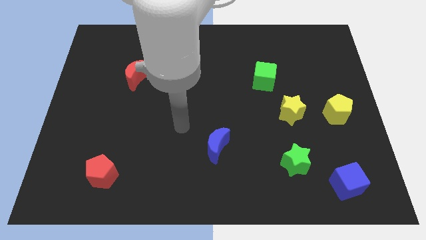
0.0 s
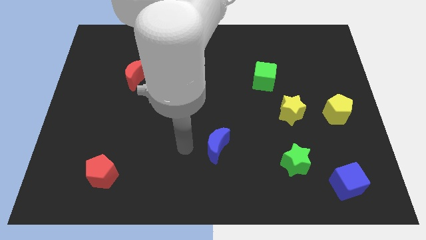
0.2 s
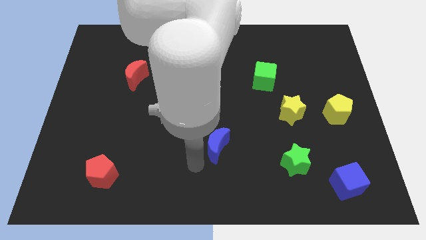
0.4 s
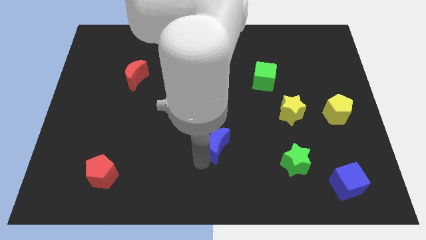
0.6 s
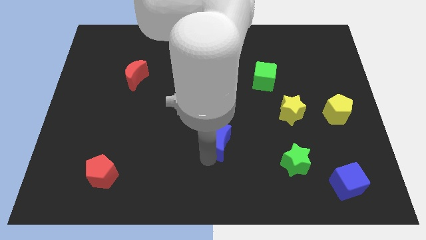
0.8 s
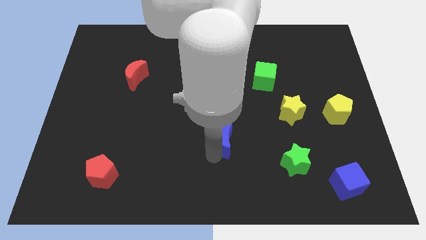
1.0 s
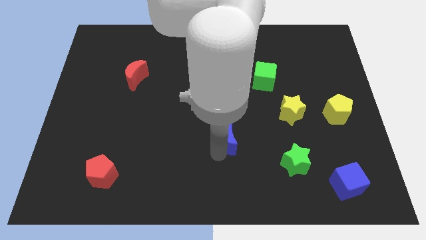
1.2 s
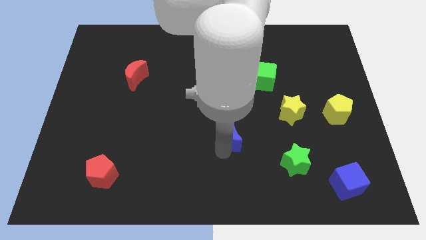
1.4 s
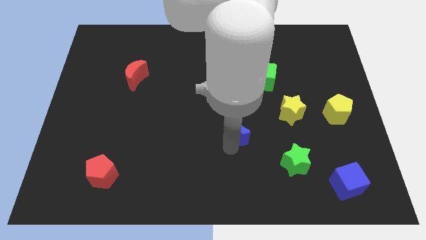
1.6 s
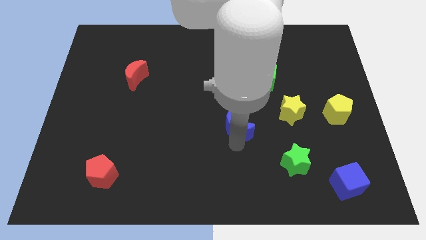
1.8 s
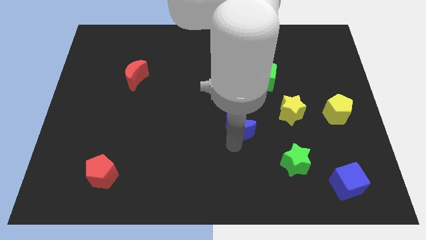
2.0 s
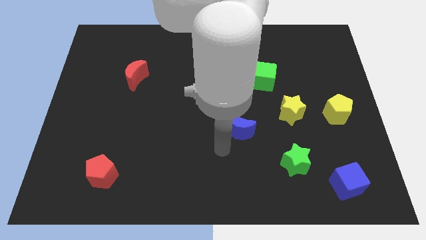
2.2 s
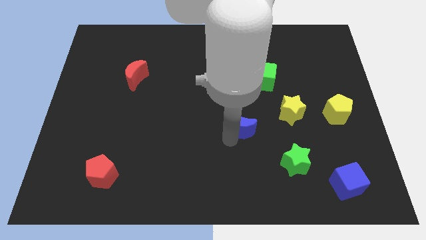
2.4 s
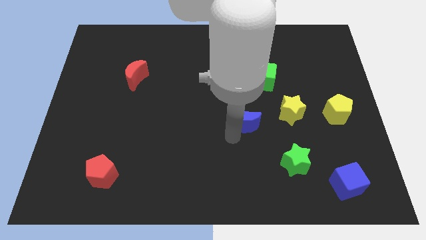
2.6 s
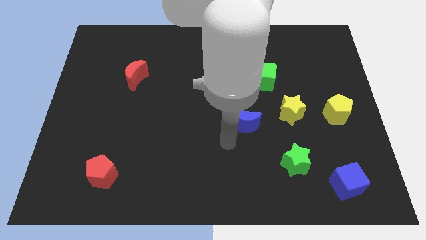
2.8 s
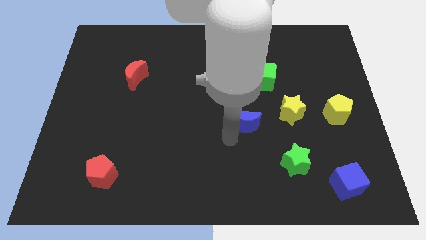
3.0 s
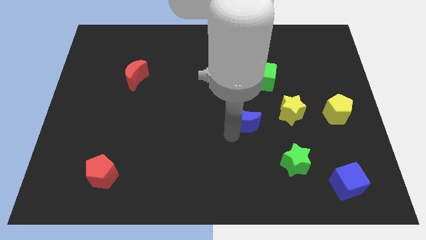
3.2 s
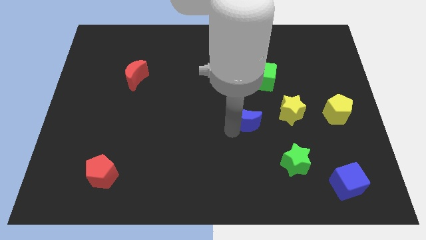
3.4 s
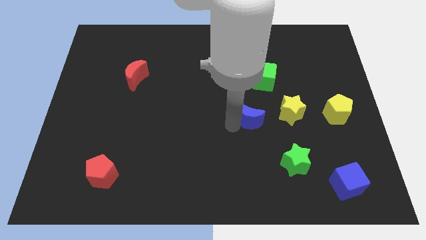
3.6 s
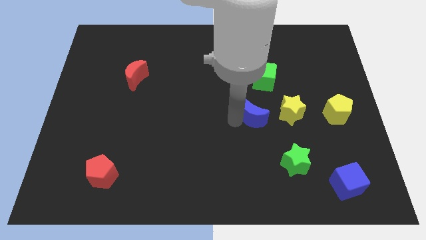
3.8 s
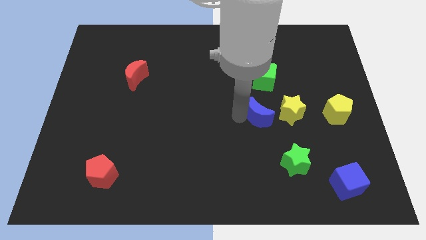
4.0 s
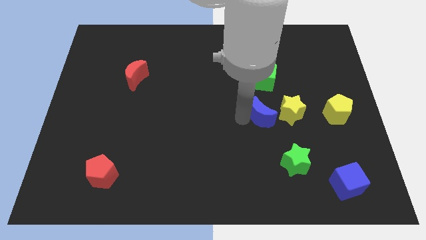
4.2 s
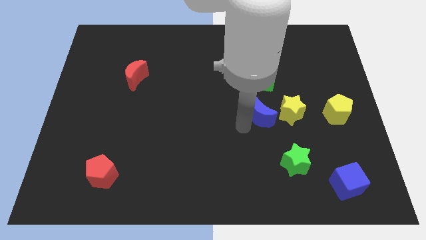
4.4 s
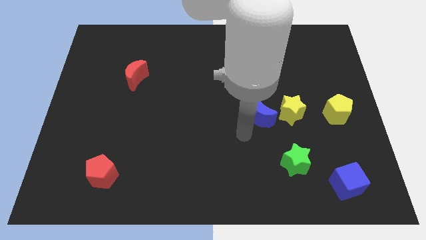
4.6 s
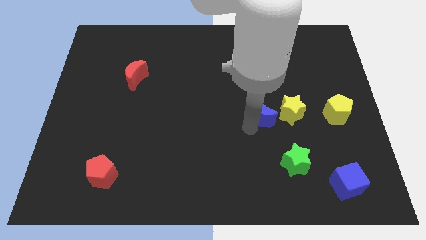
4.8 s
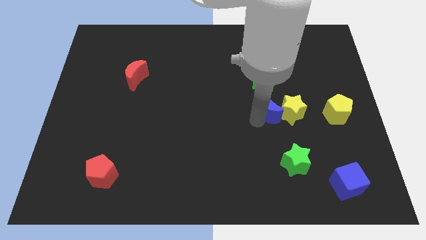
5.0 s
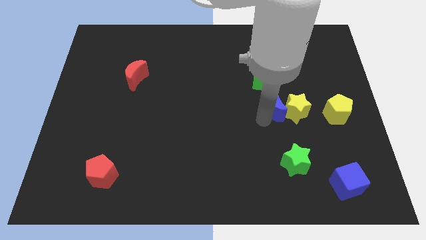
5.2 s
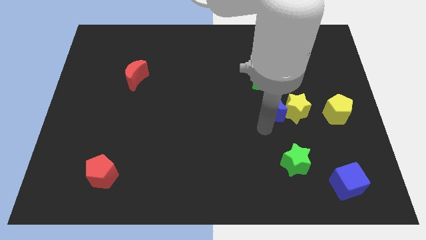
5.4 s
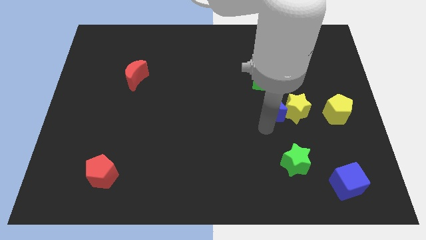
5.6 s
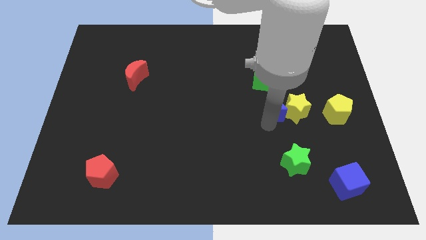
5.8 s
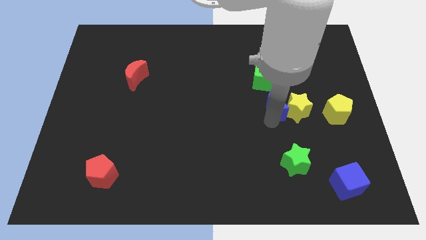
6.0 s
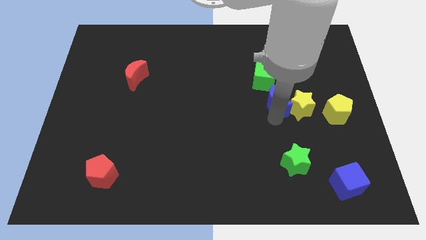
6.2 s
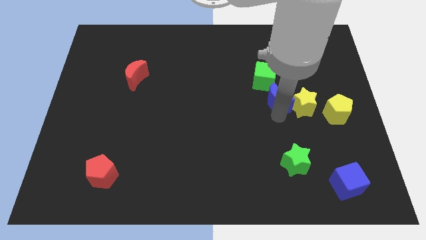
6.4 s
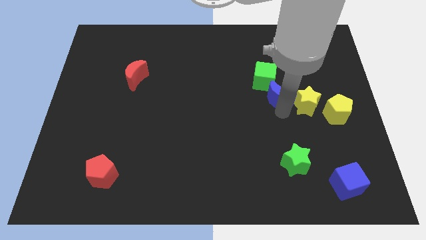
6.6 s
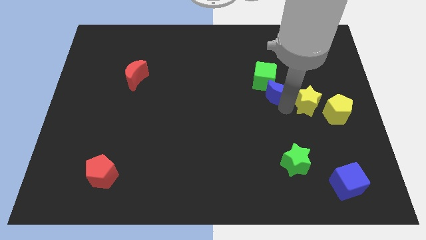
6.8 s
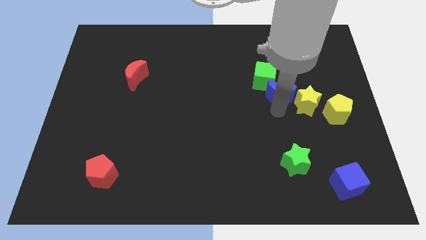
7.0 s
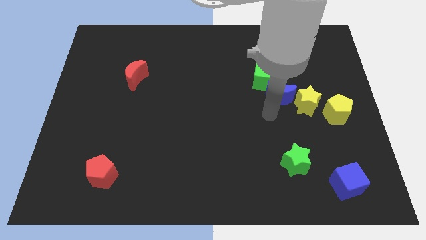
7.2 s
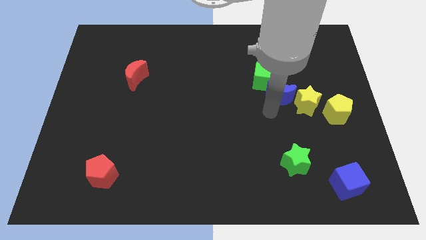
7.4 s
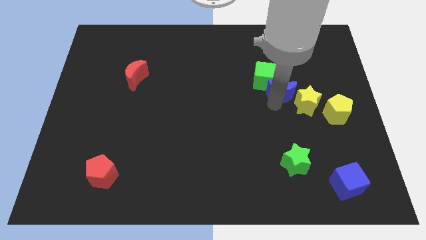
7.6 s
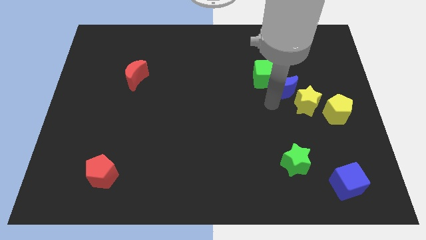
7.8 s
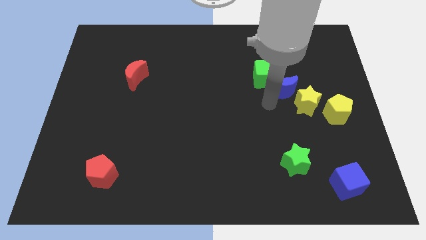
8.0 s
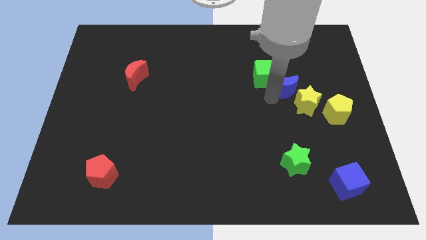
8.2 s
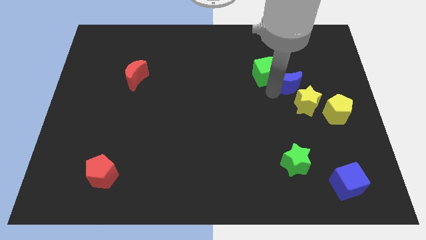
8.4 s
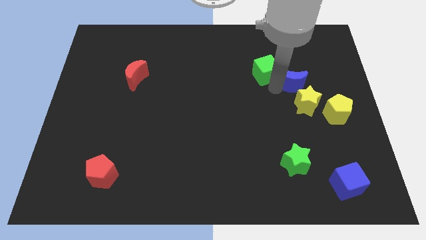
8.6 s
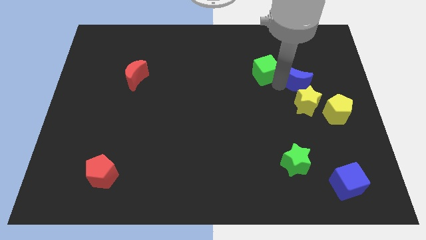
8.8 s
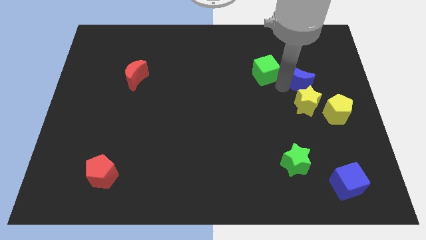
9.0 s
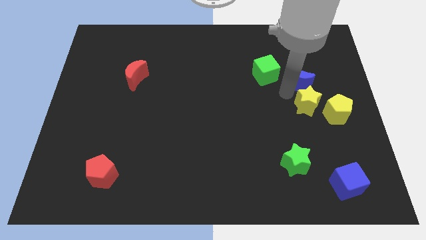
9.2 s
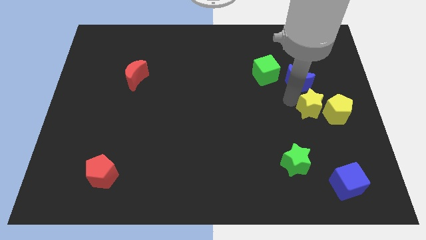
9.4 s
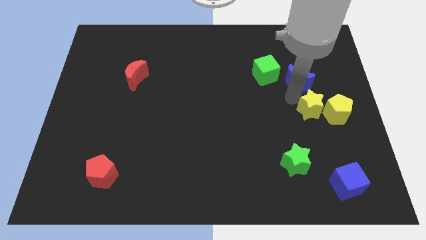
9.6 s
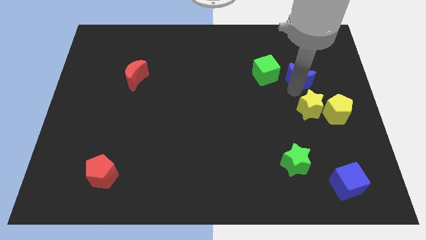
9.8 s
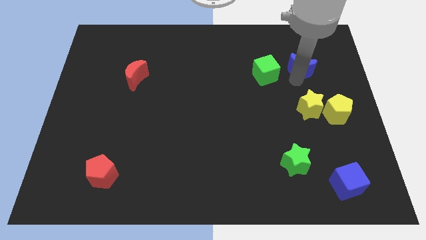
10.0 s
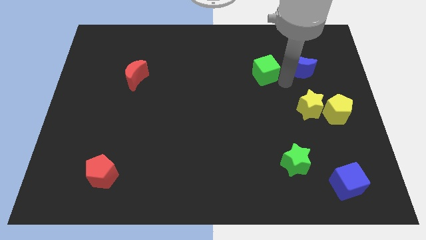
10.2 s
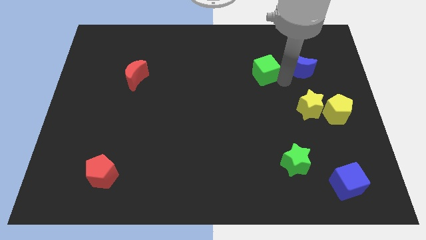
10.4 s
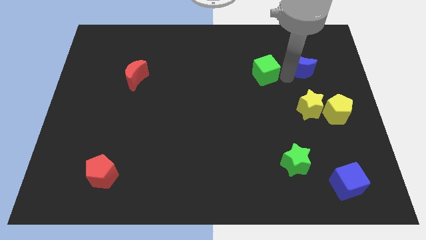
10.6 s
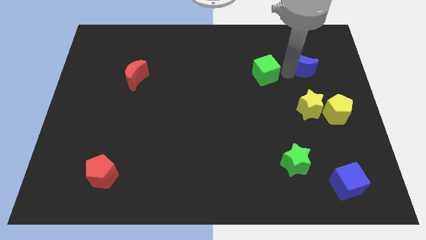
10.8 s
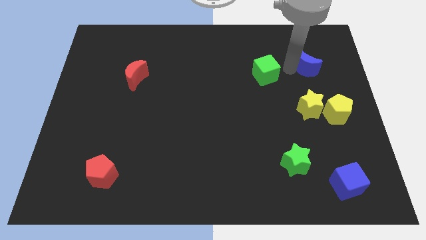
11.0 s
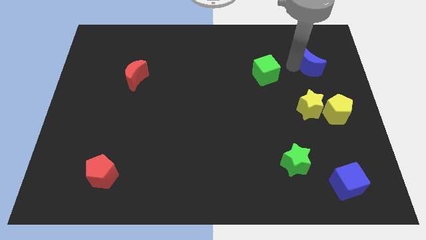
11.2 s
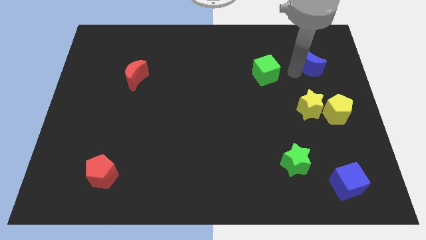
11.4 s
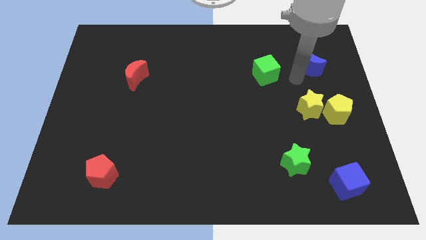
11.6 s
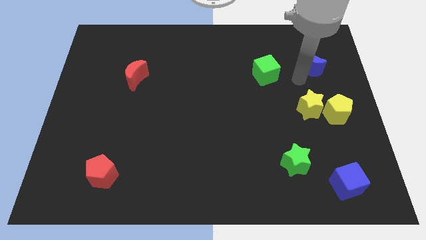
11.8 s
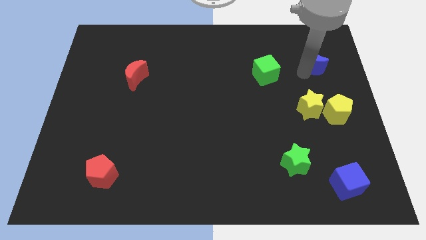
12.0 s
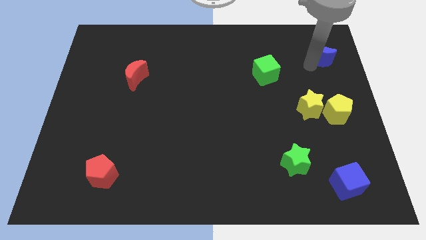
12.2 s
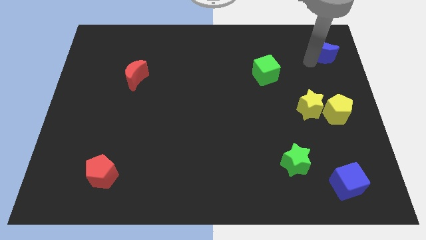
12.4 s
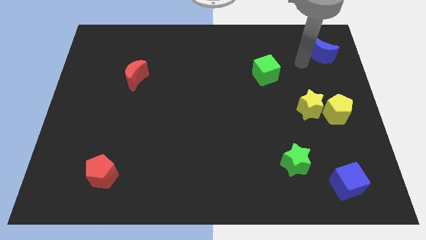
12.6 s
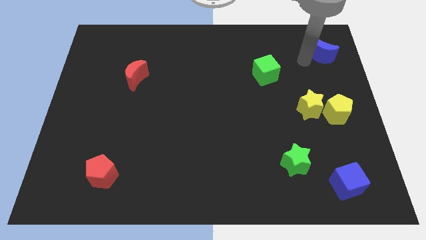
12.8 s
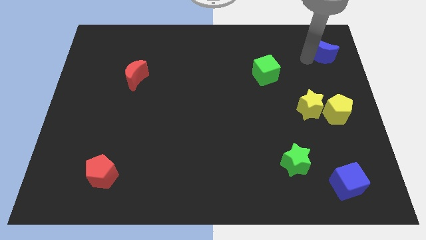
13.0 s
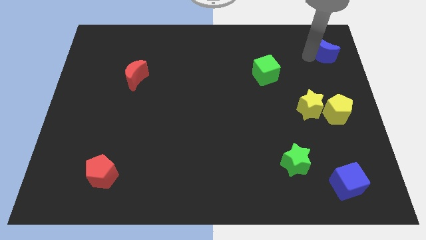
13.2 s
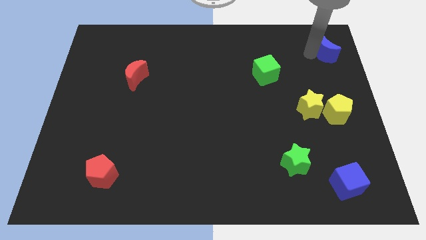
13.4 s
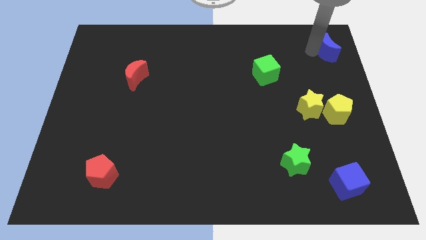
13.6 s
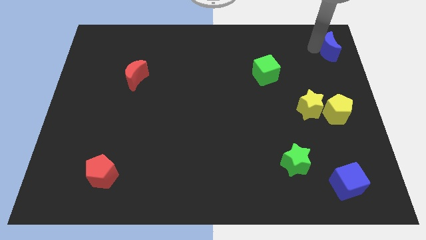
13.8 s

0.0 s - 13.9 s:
put the blue moon to the top right of the board
